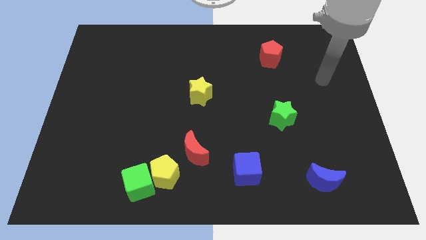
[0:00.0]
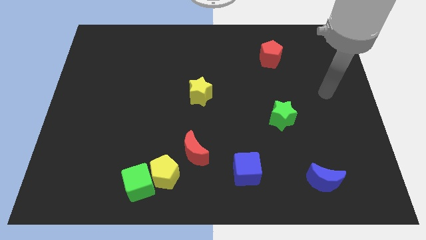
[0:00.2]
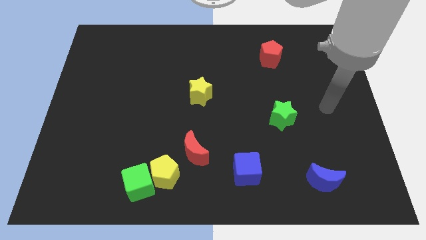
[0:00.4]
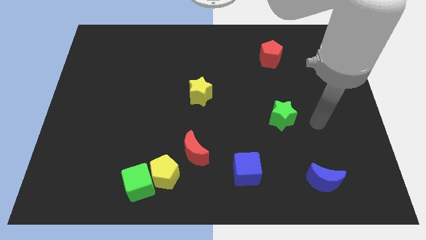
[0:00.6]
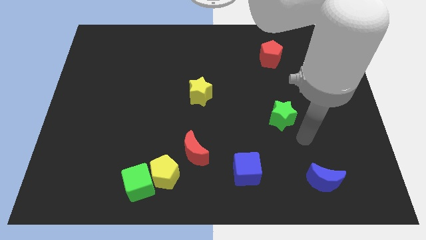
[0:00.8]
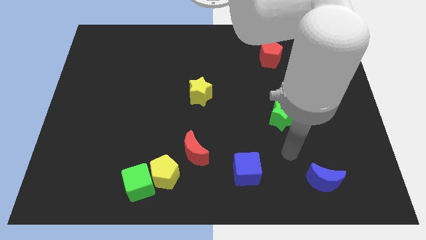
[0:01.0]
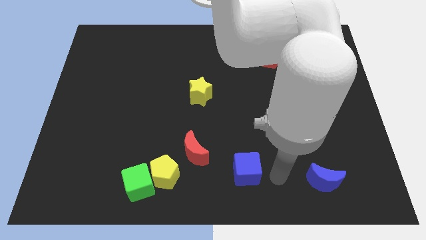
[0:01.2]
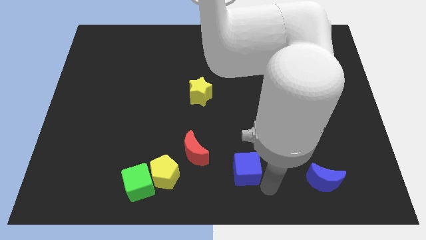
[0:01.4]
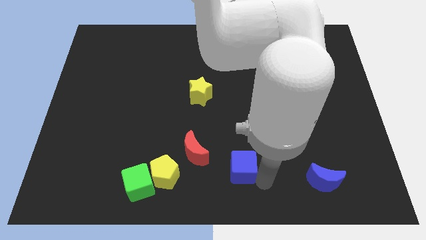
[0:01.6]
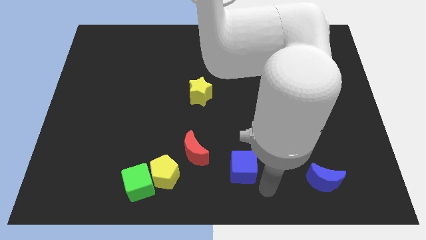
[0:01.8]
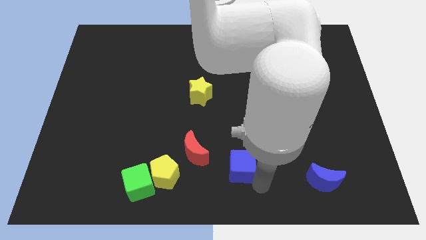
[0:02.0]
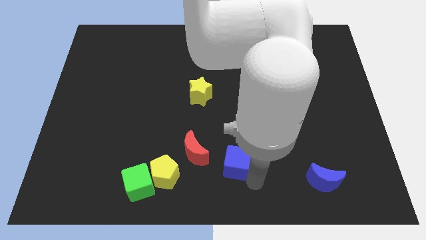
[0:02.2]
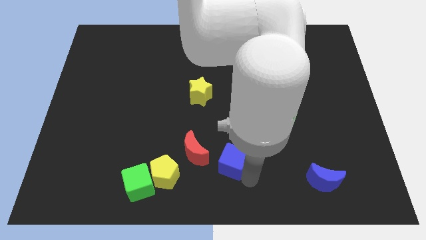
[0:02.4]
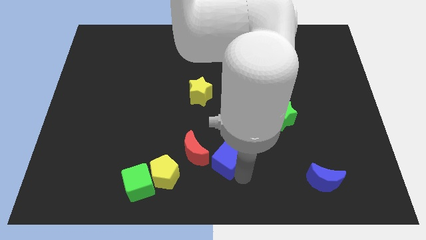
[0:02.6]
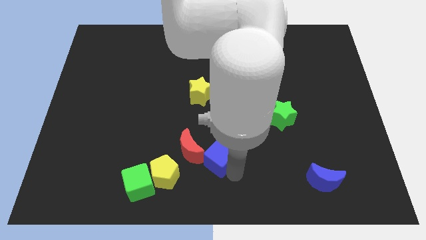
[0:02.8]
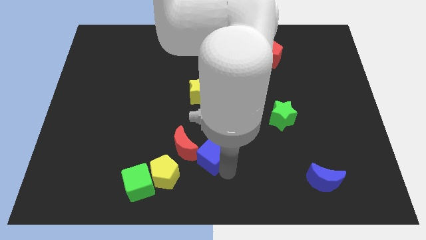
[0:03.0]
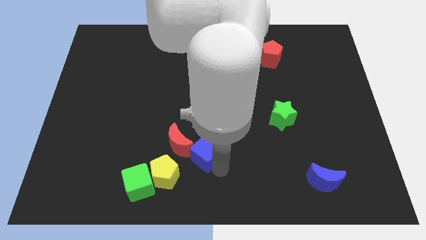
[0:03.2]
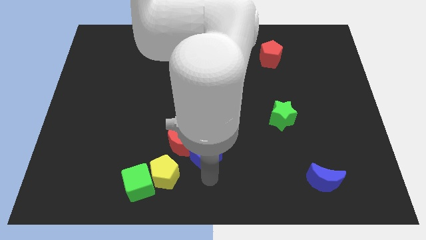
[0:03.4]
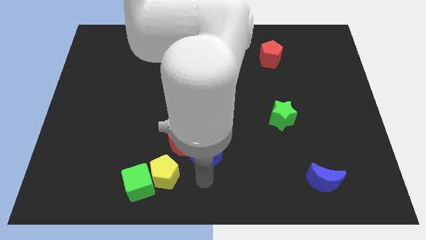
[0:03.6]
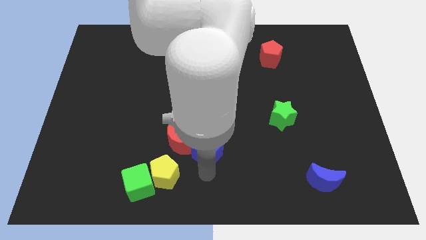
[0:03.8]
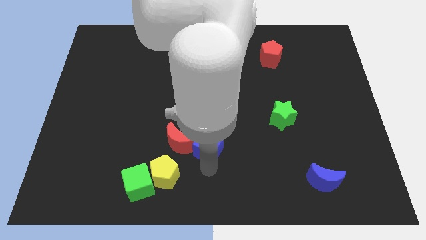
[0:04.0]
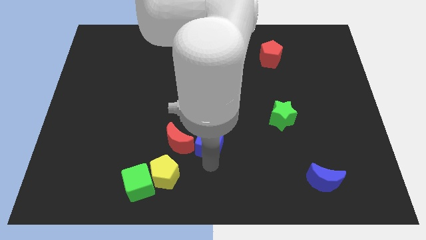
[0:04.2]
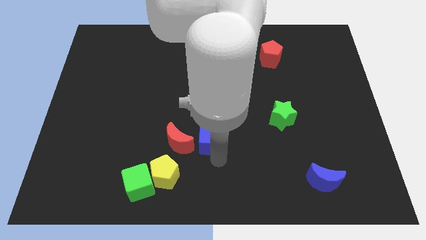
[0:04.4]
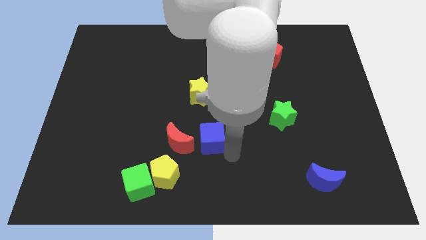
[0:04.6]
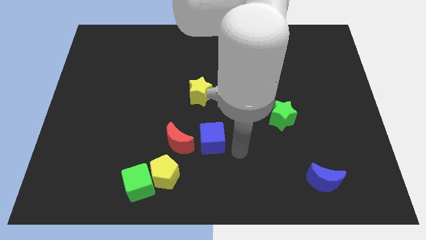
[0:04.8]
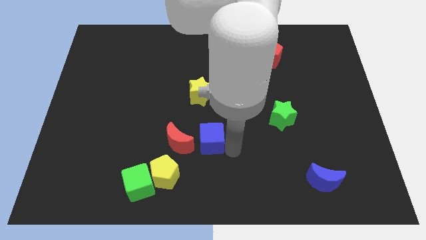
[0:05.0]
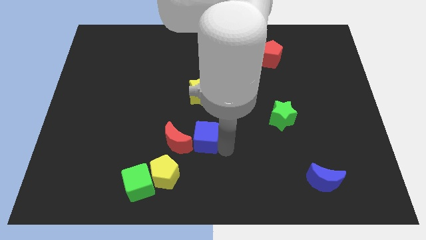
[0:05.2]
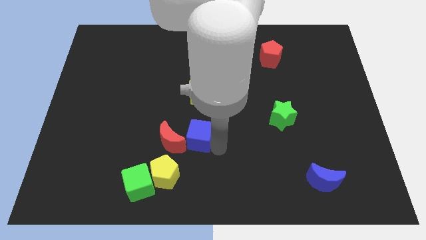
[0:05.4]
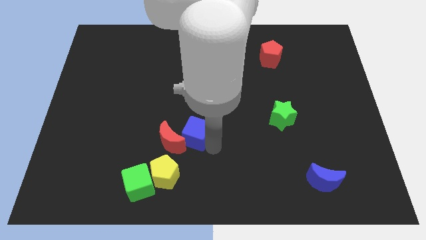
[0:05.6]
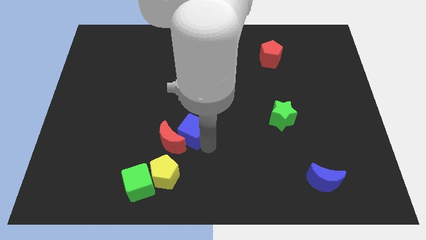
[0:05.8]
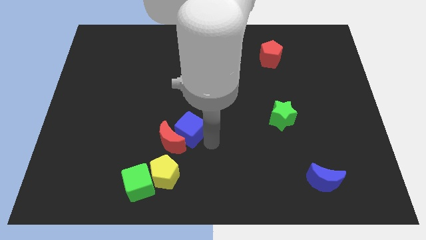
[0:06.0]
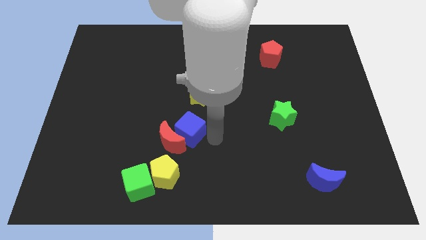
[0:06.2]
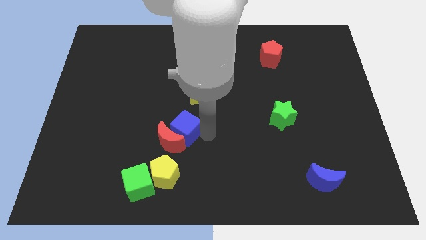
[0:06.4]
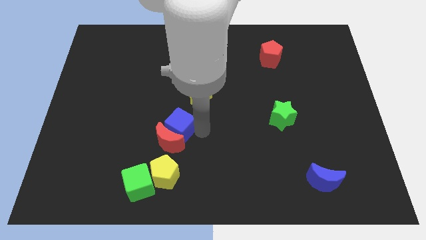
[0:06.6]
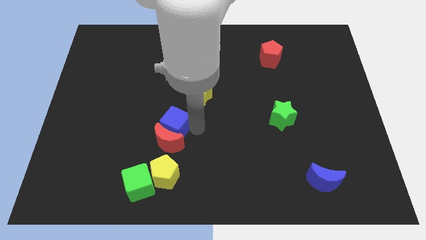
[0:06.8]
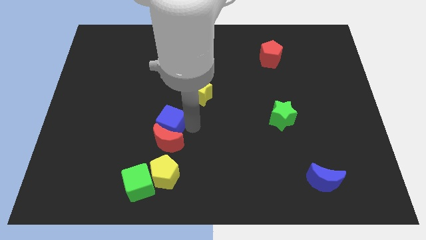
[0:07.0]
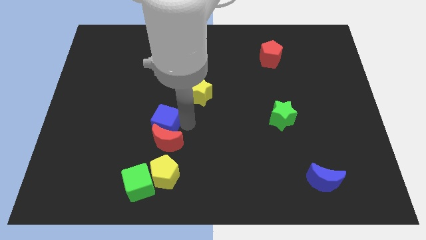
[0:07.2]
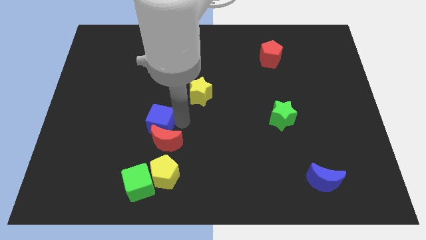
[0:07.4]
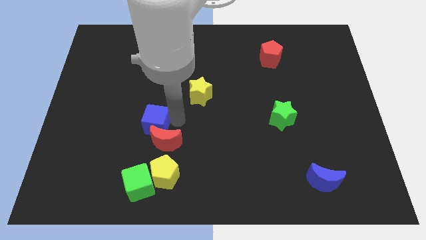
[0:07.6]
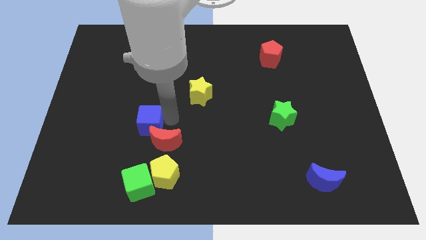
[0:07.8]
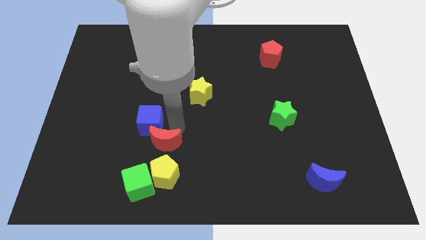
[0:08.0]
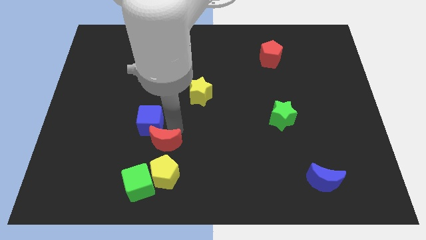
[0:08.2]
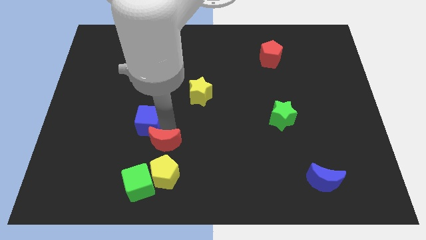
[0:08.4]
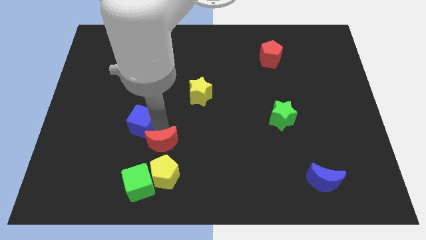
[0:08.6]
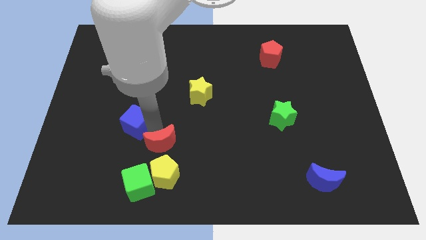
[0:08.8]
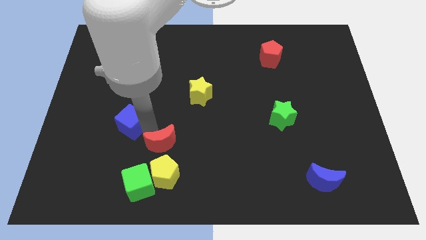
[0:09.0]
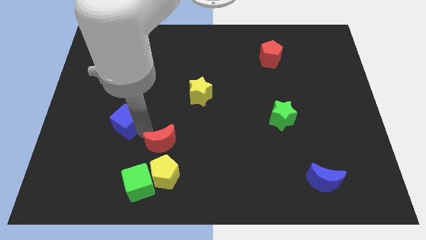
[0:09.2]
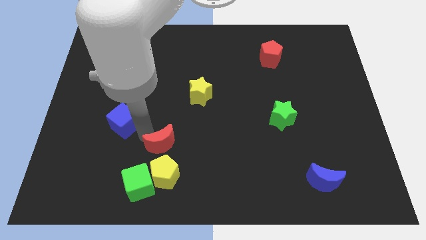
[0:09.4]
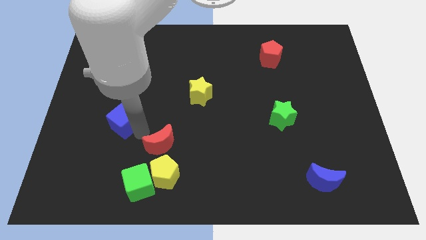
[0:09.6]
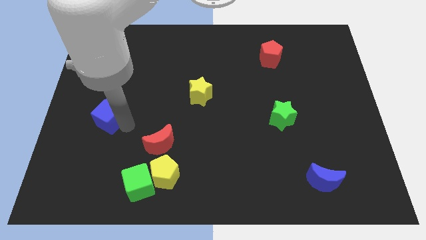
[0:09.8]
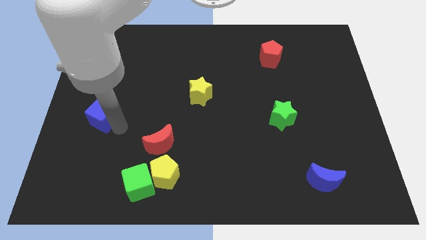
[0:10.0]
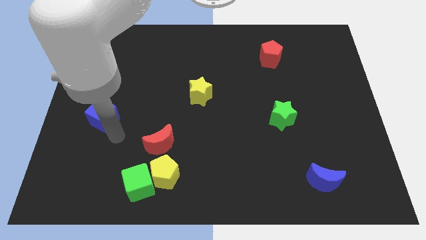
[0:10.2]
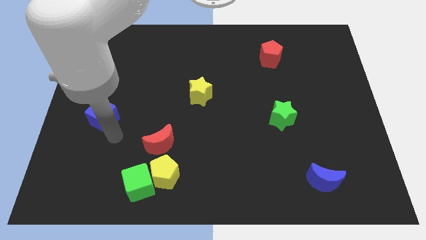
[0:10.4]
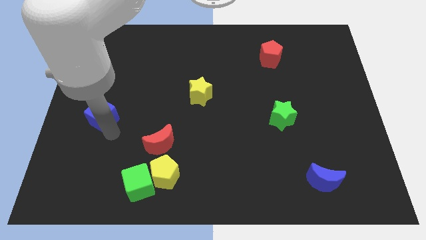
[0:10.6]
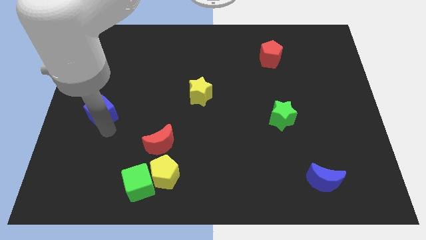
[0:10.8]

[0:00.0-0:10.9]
put the blue cube to the center left

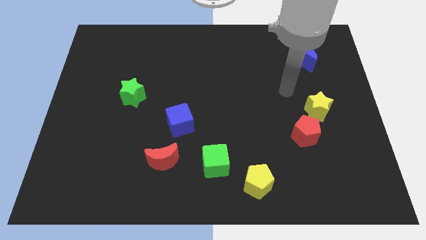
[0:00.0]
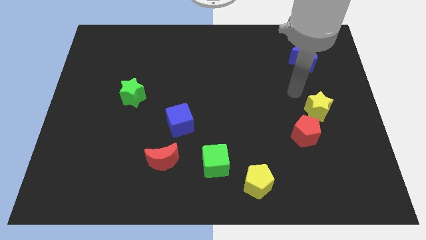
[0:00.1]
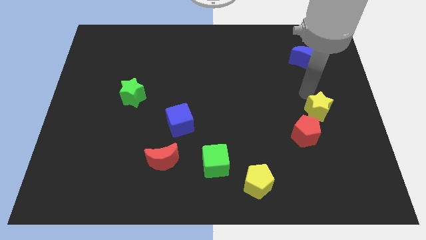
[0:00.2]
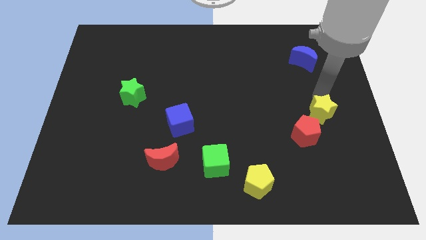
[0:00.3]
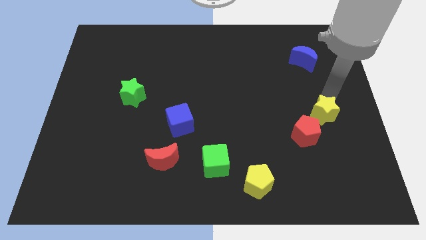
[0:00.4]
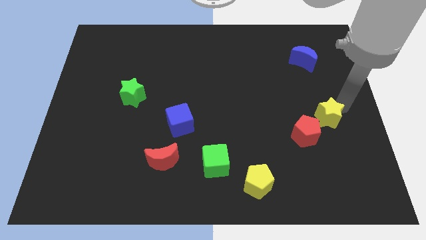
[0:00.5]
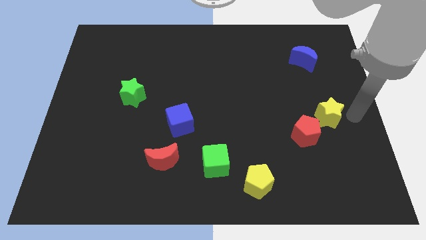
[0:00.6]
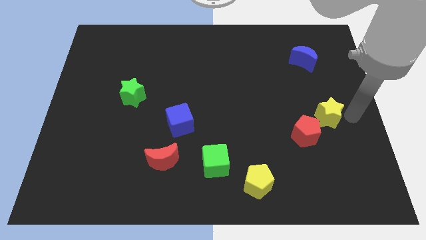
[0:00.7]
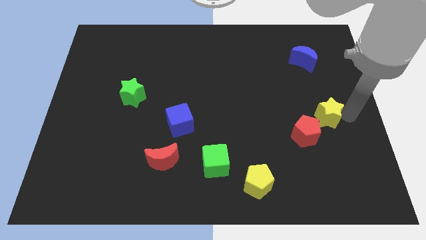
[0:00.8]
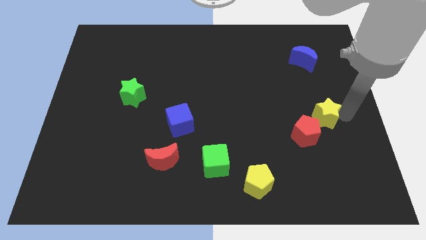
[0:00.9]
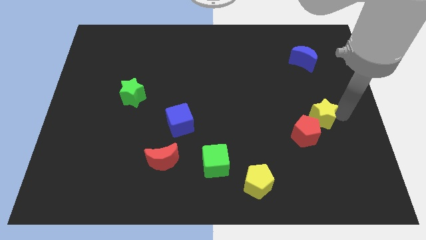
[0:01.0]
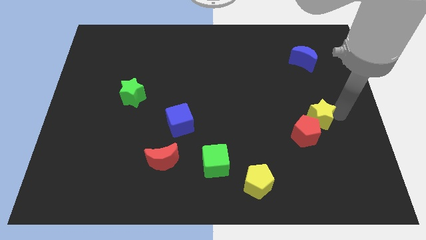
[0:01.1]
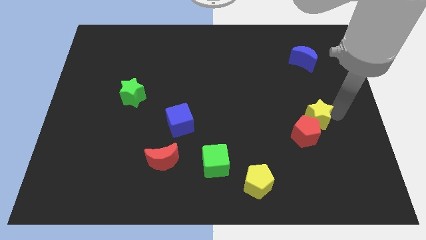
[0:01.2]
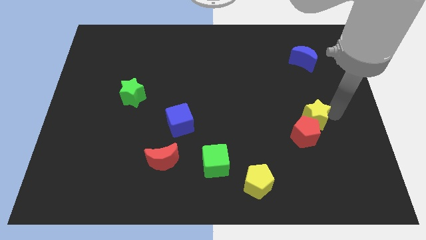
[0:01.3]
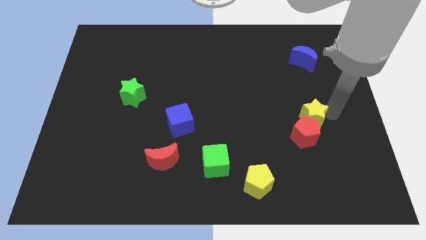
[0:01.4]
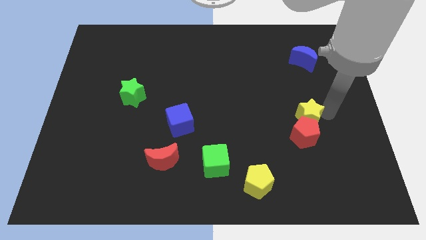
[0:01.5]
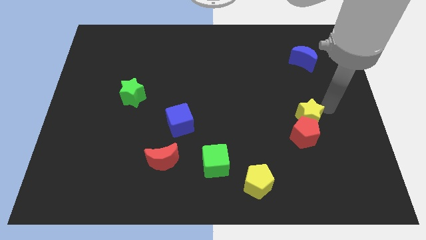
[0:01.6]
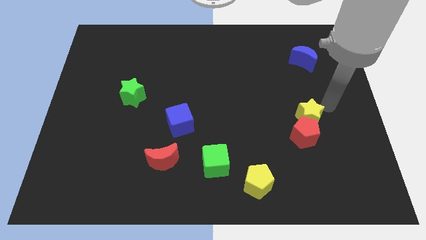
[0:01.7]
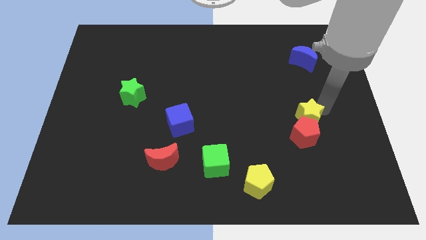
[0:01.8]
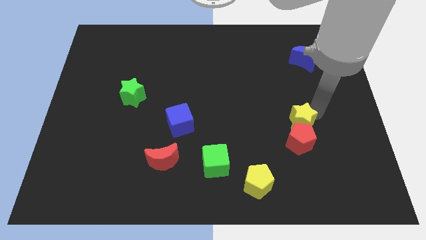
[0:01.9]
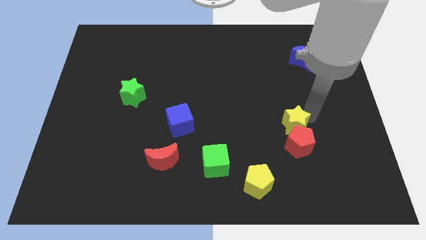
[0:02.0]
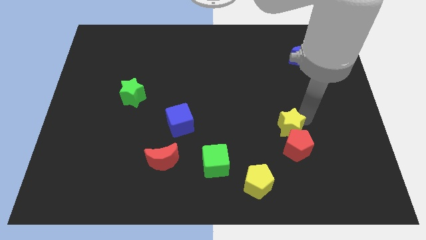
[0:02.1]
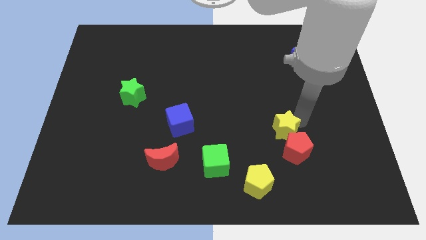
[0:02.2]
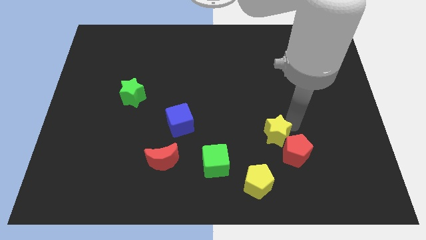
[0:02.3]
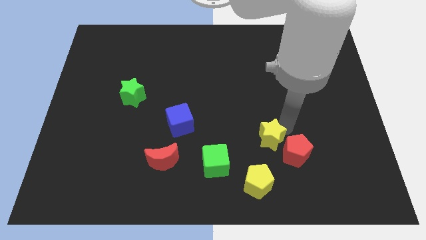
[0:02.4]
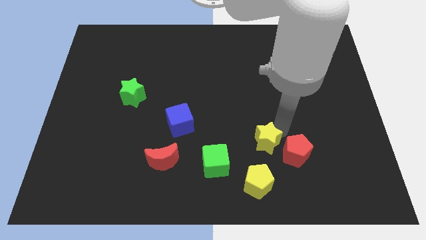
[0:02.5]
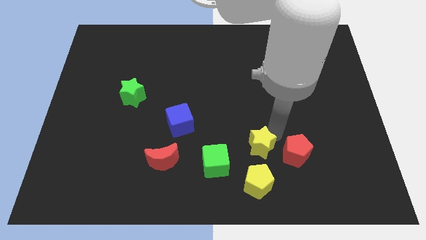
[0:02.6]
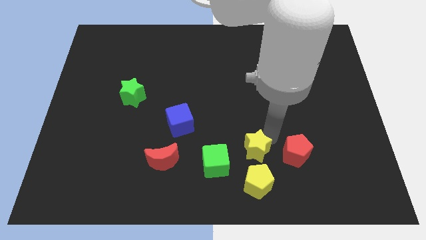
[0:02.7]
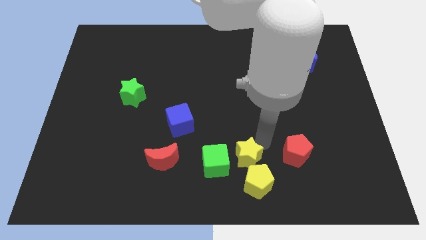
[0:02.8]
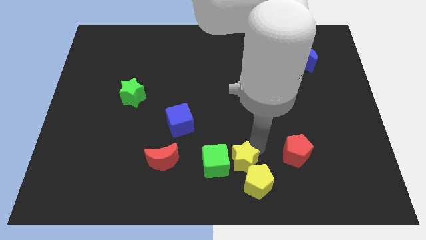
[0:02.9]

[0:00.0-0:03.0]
push the yellow star to the bottom
